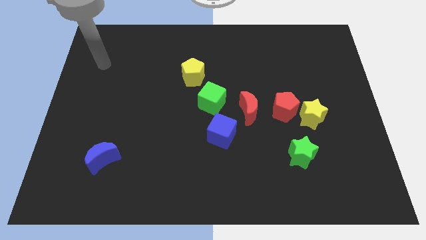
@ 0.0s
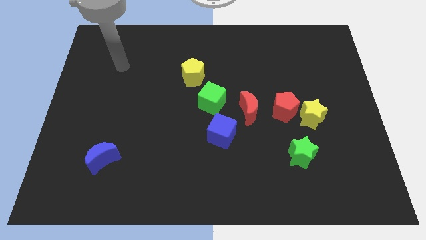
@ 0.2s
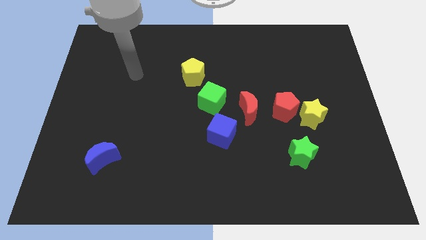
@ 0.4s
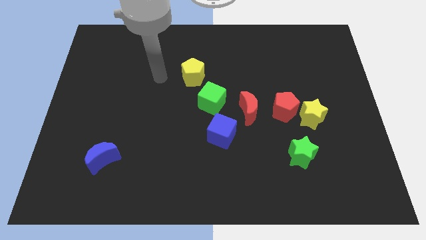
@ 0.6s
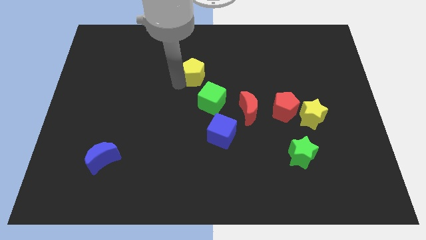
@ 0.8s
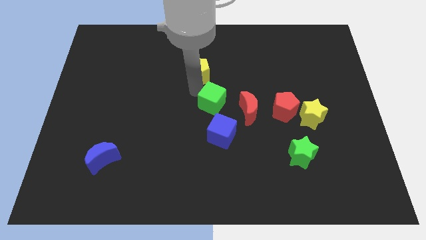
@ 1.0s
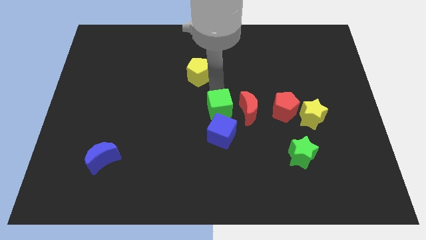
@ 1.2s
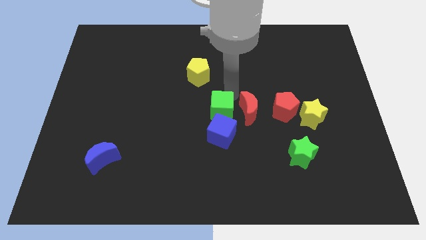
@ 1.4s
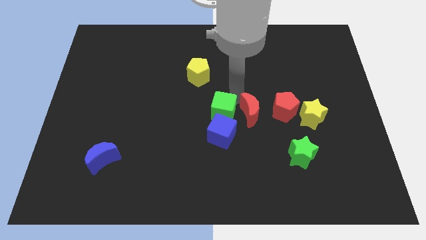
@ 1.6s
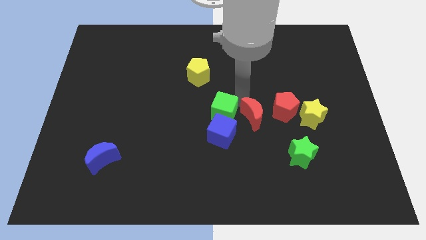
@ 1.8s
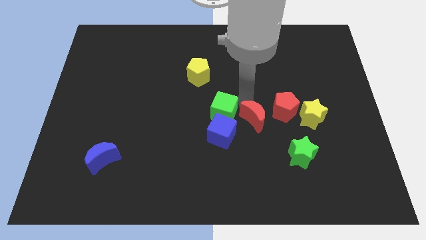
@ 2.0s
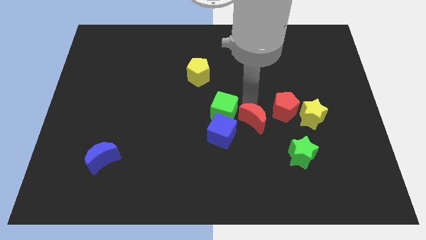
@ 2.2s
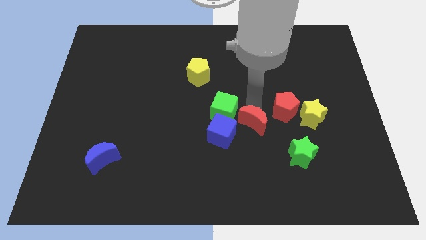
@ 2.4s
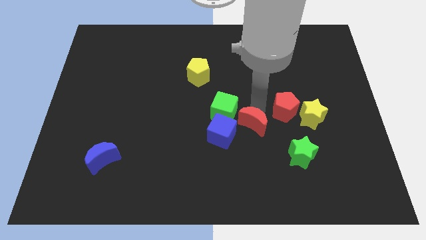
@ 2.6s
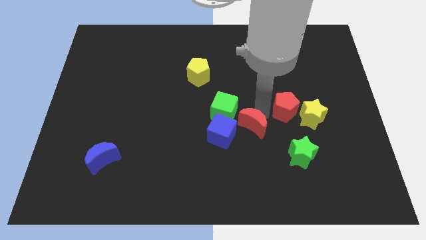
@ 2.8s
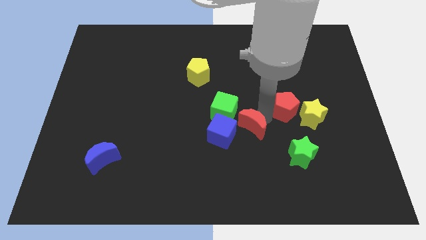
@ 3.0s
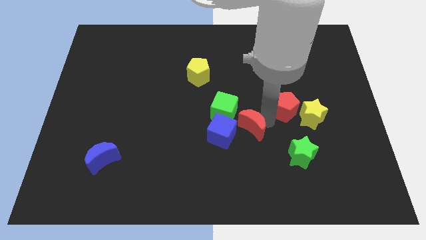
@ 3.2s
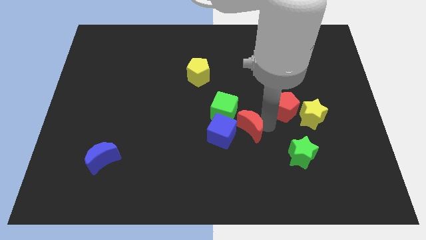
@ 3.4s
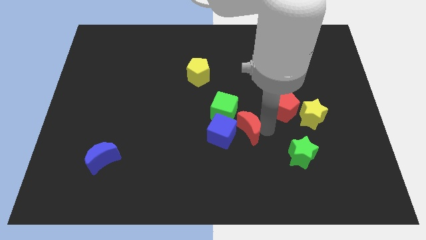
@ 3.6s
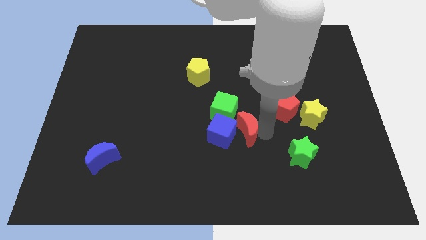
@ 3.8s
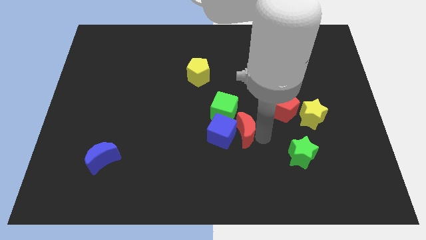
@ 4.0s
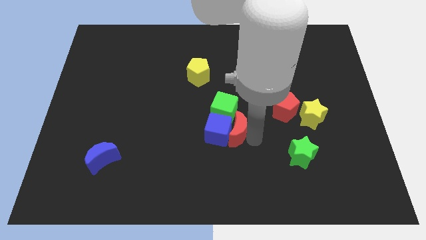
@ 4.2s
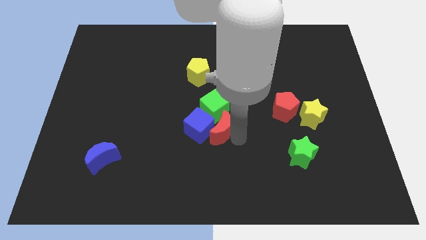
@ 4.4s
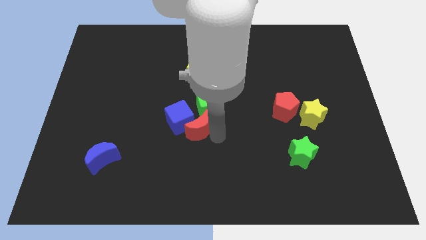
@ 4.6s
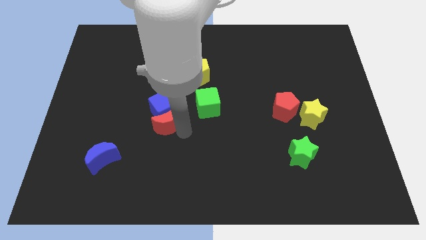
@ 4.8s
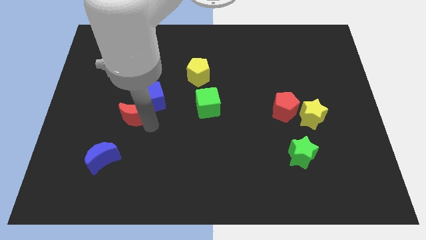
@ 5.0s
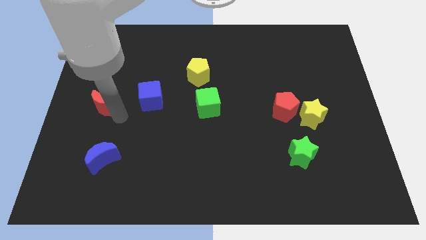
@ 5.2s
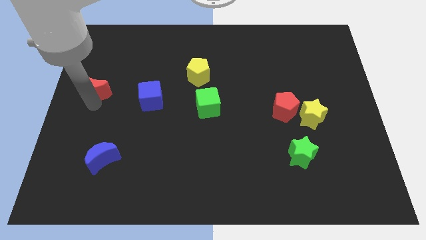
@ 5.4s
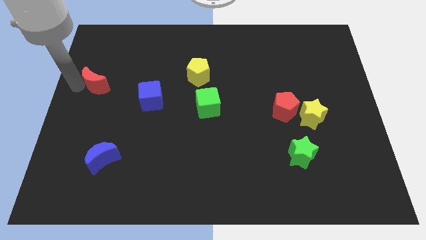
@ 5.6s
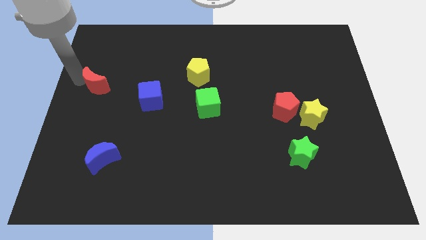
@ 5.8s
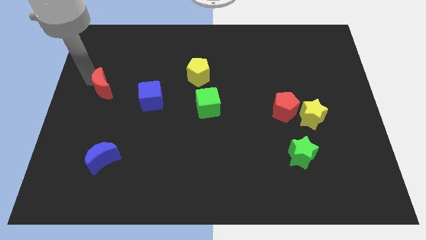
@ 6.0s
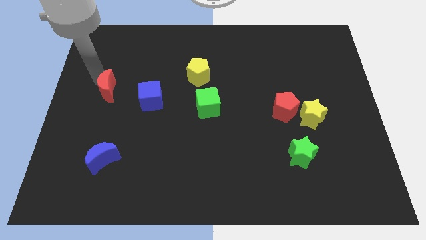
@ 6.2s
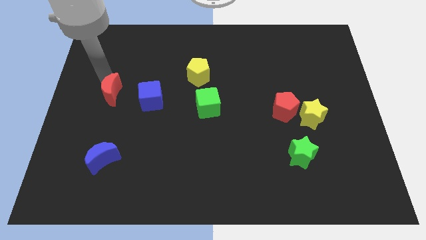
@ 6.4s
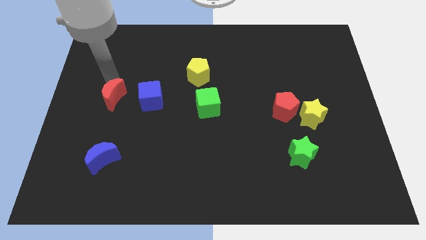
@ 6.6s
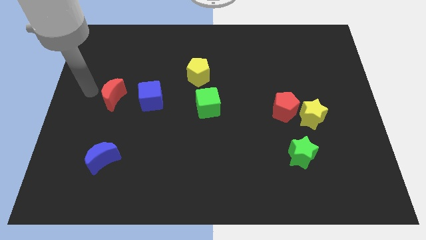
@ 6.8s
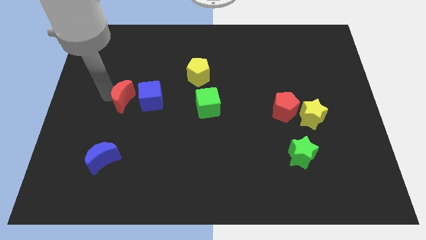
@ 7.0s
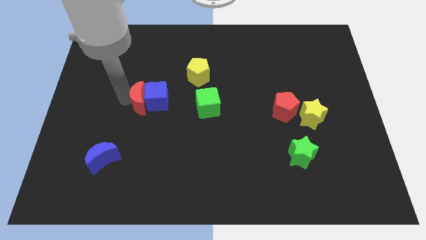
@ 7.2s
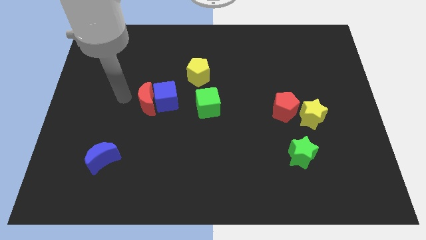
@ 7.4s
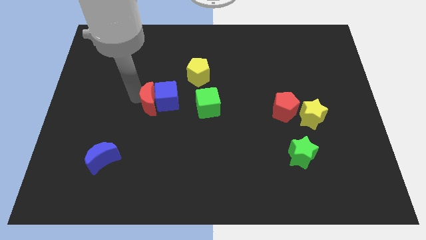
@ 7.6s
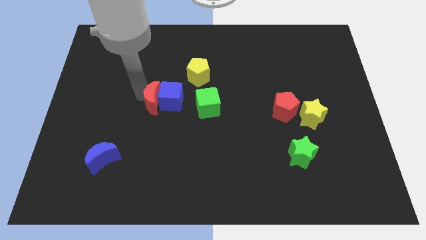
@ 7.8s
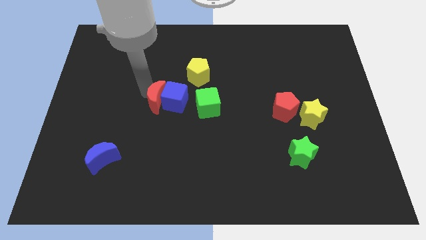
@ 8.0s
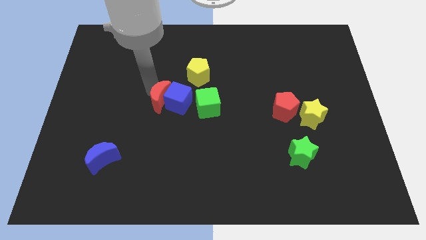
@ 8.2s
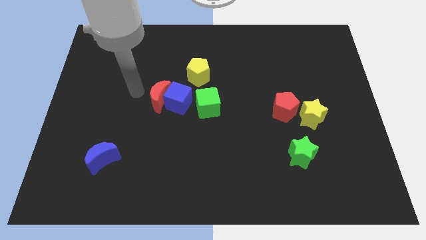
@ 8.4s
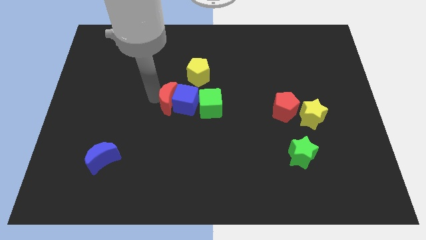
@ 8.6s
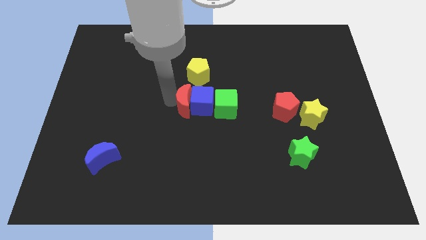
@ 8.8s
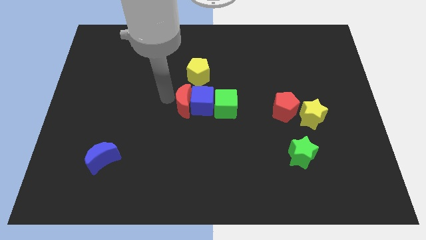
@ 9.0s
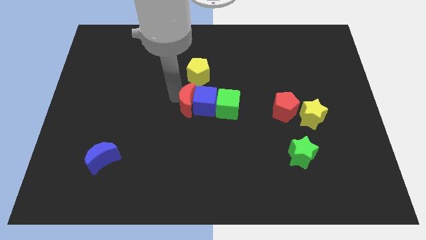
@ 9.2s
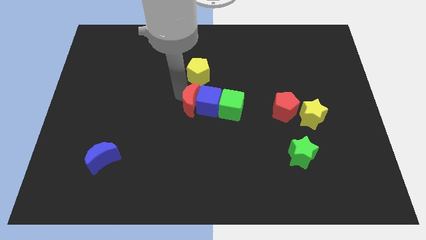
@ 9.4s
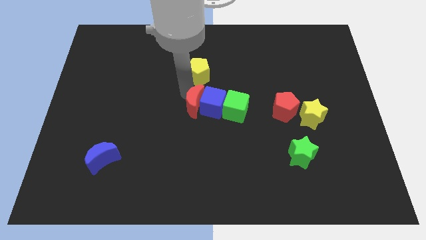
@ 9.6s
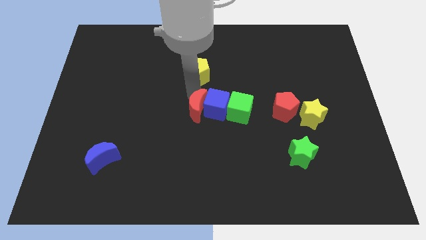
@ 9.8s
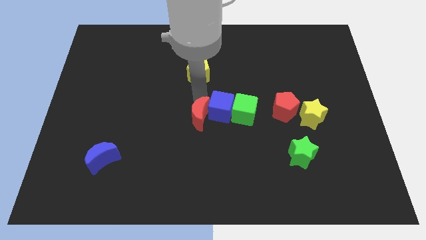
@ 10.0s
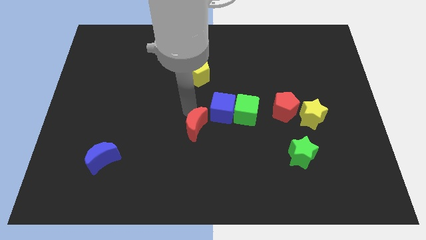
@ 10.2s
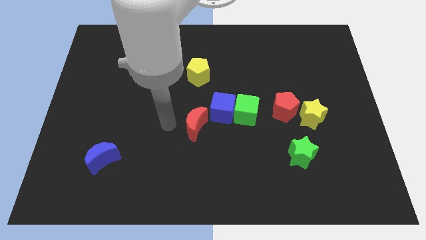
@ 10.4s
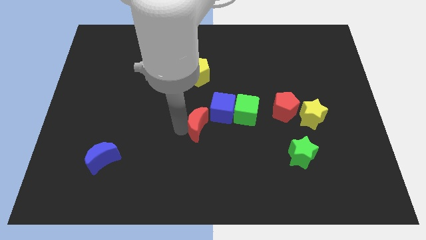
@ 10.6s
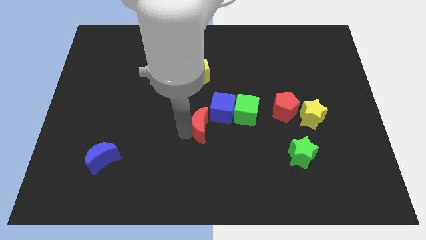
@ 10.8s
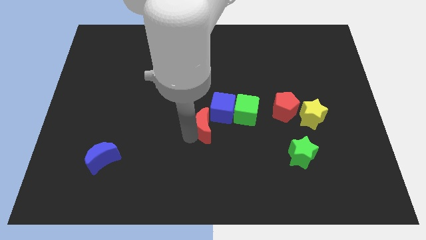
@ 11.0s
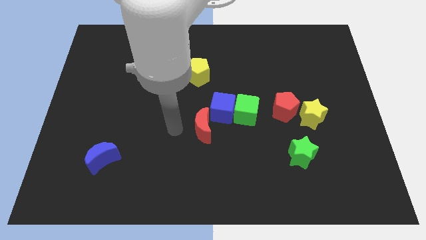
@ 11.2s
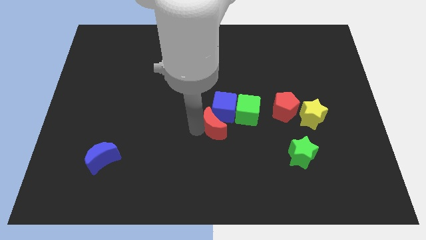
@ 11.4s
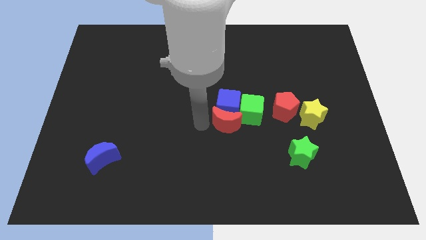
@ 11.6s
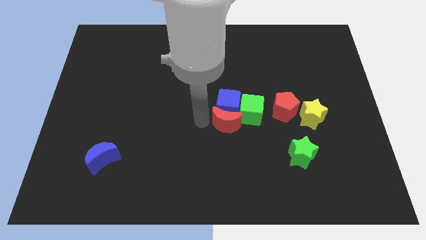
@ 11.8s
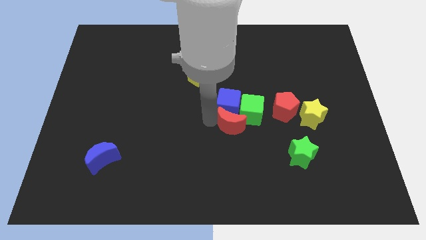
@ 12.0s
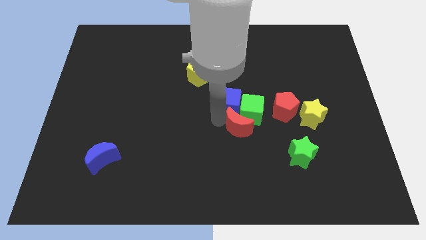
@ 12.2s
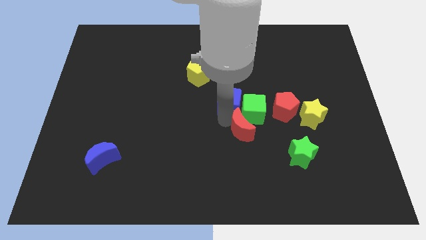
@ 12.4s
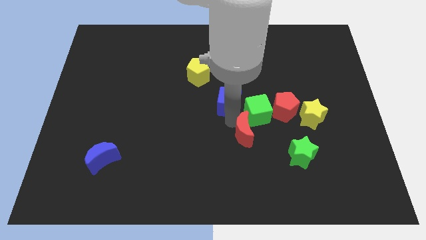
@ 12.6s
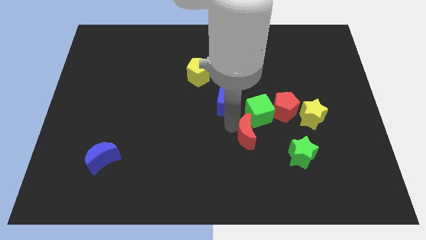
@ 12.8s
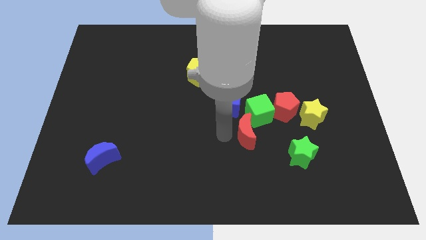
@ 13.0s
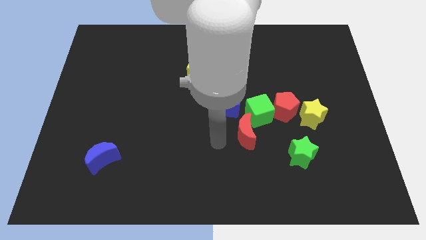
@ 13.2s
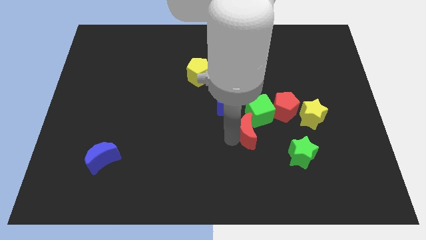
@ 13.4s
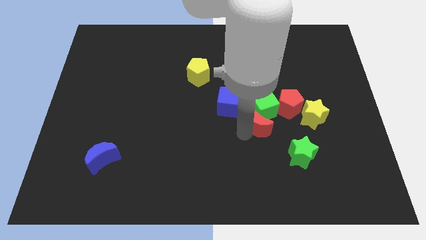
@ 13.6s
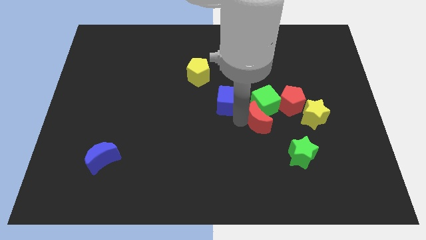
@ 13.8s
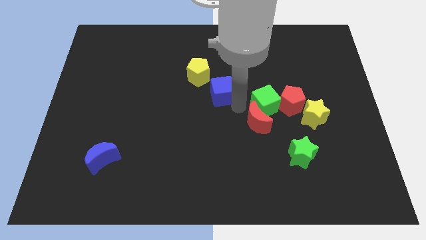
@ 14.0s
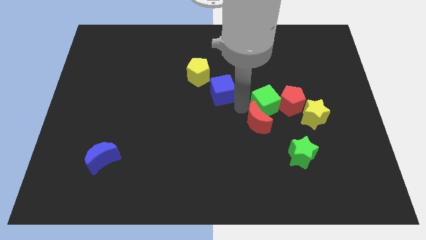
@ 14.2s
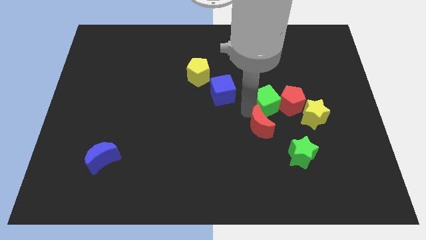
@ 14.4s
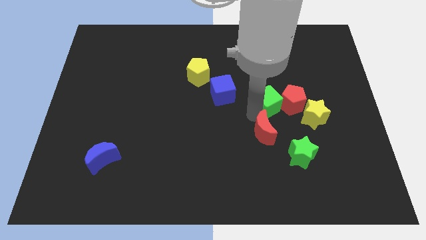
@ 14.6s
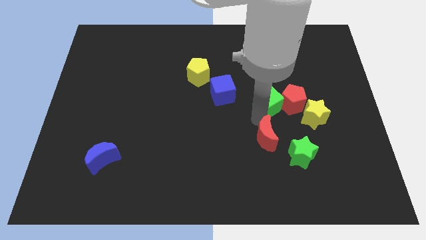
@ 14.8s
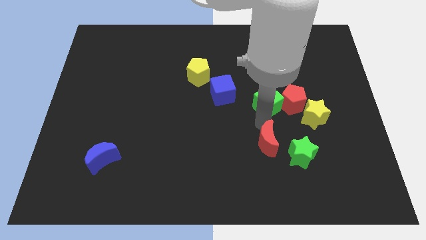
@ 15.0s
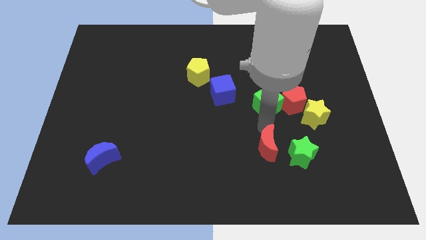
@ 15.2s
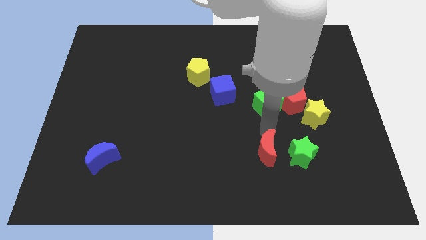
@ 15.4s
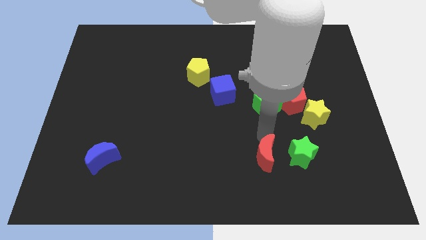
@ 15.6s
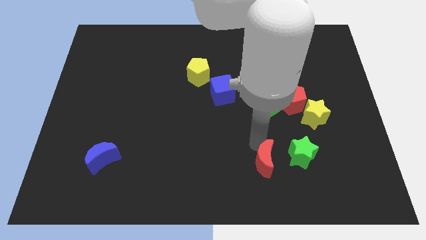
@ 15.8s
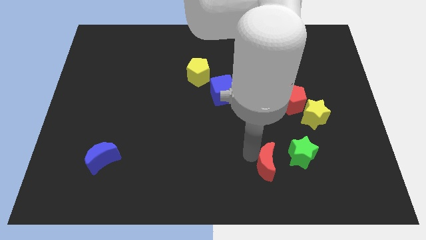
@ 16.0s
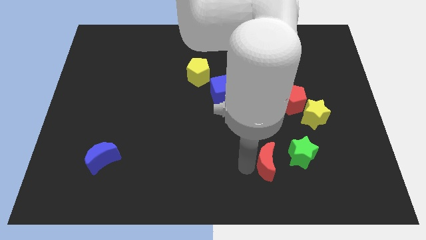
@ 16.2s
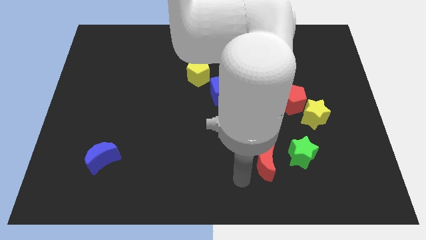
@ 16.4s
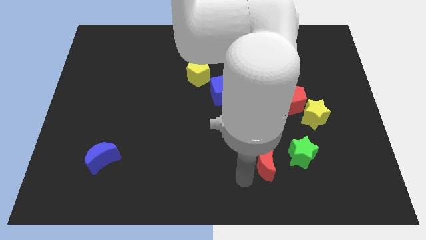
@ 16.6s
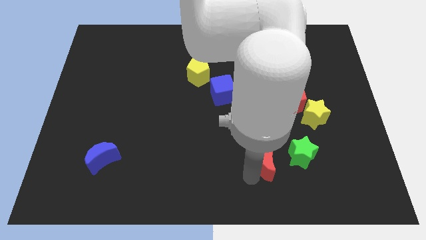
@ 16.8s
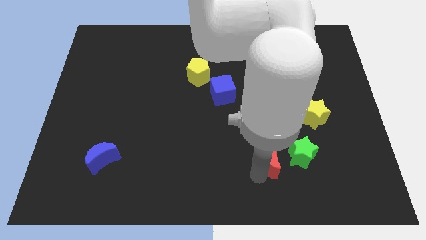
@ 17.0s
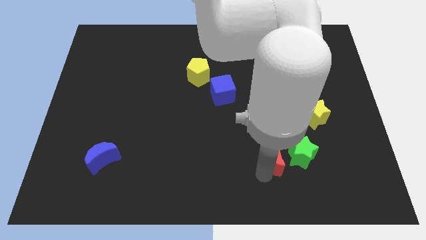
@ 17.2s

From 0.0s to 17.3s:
move the red moon towards the green star
